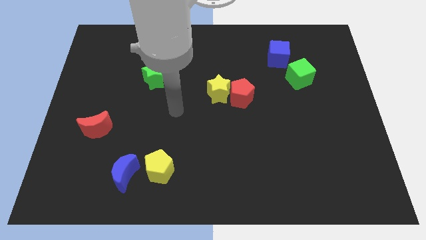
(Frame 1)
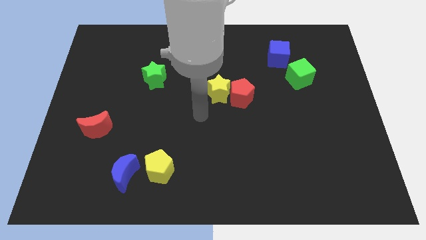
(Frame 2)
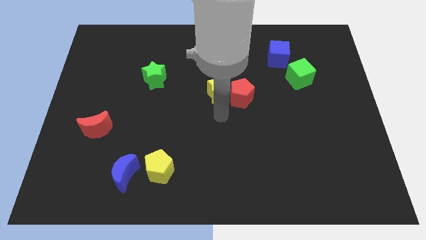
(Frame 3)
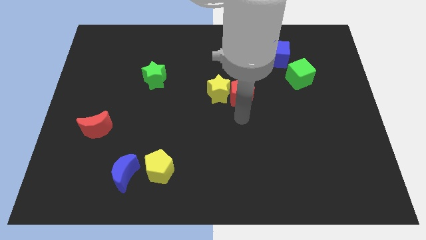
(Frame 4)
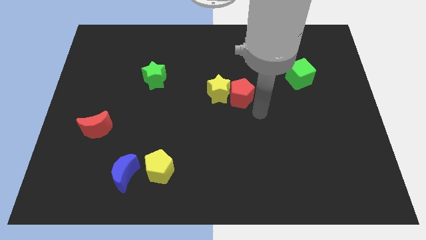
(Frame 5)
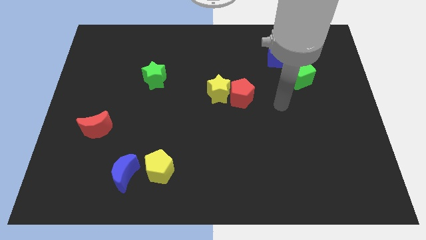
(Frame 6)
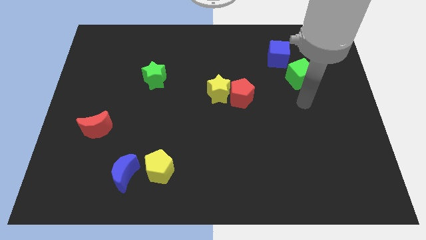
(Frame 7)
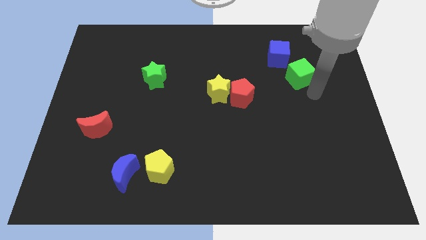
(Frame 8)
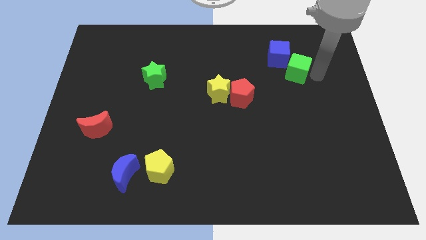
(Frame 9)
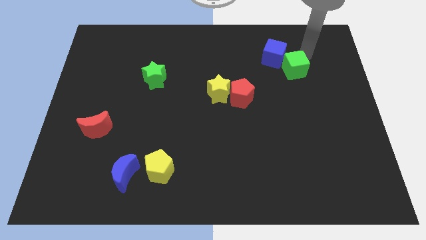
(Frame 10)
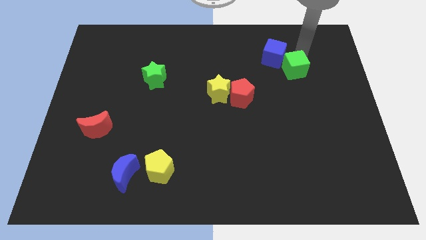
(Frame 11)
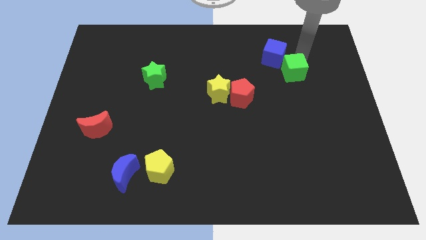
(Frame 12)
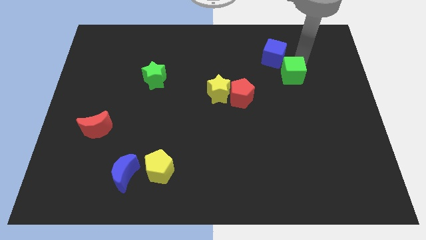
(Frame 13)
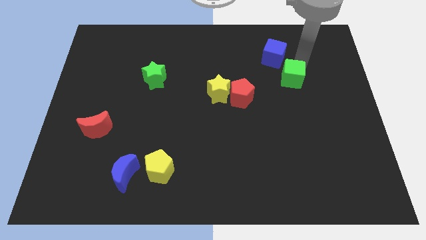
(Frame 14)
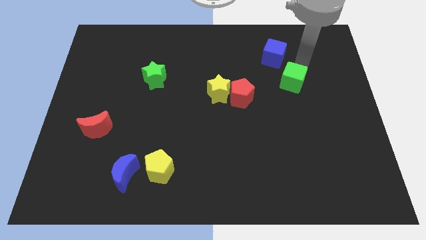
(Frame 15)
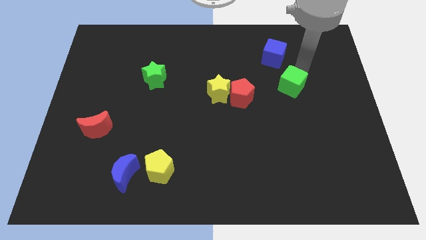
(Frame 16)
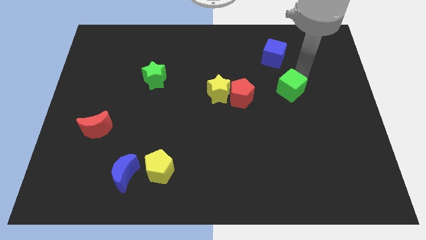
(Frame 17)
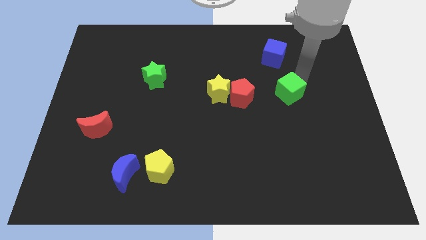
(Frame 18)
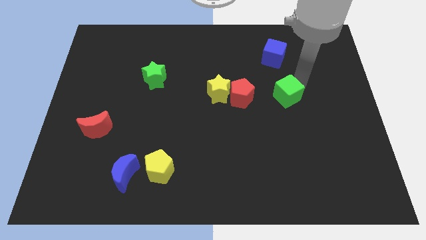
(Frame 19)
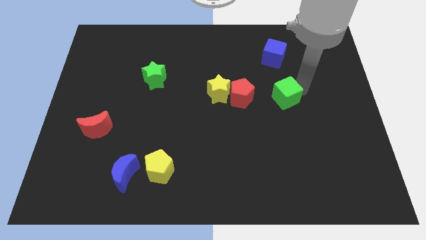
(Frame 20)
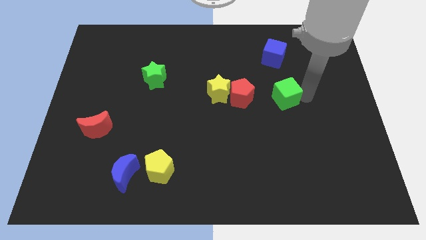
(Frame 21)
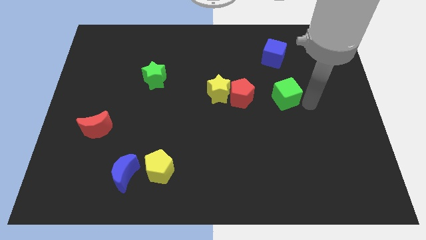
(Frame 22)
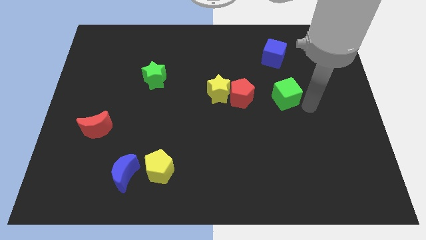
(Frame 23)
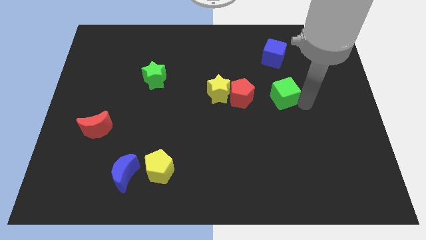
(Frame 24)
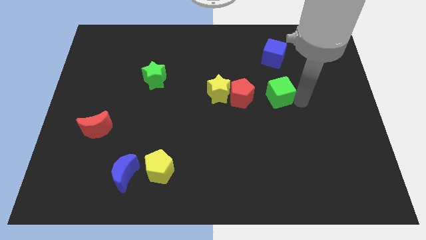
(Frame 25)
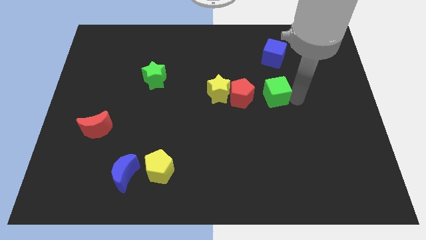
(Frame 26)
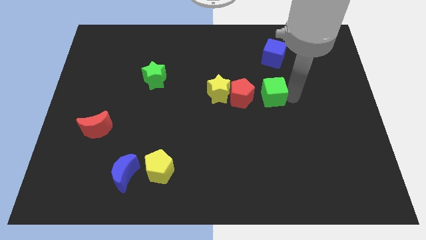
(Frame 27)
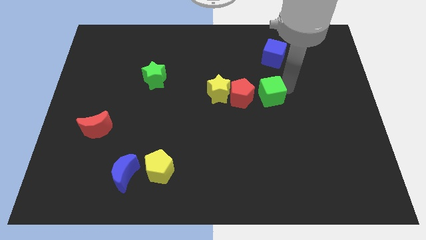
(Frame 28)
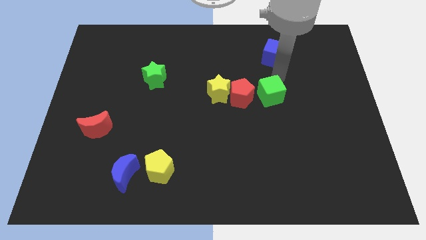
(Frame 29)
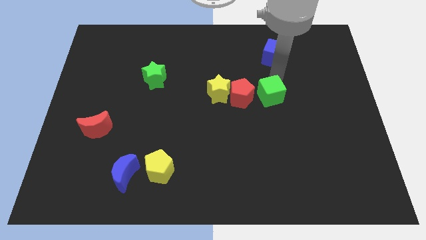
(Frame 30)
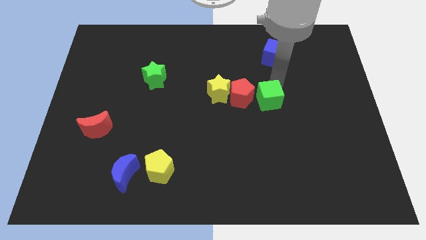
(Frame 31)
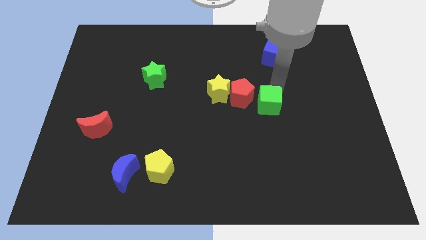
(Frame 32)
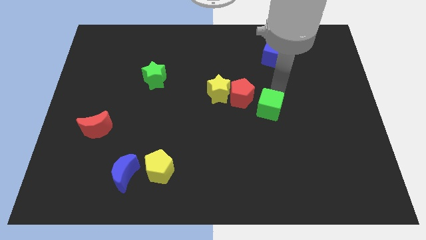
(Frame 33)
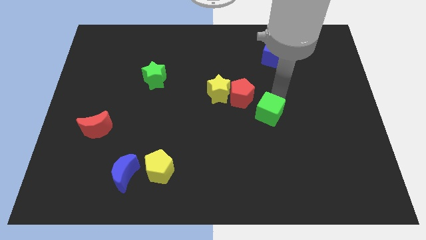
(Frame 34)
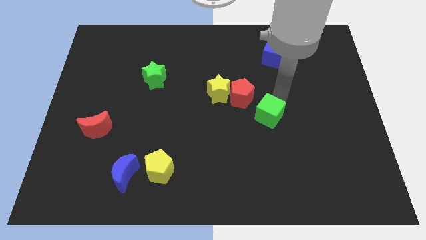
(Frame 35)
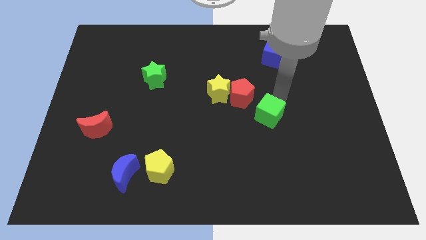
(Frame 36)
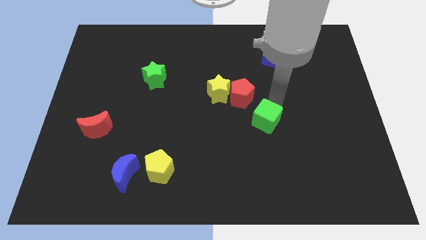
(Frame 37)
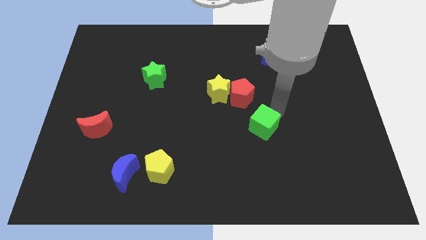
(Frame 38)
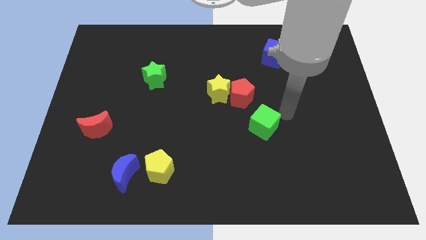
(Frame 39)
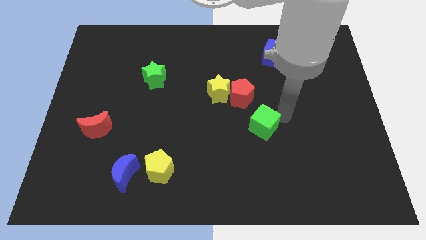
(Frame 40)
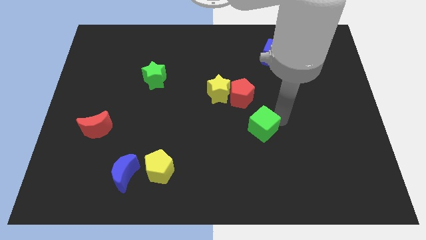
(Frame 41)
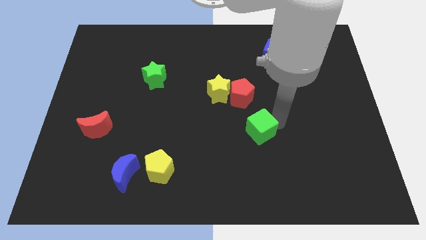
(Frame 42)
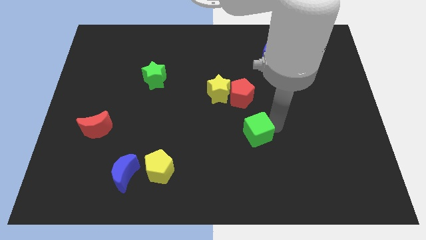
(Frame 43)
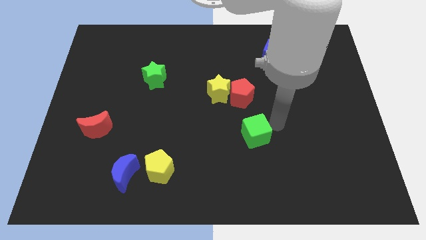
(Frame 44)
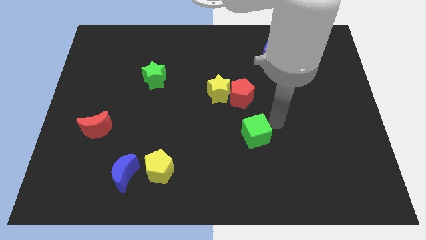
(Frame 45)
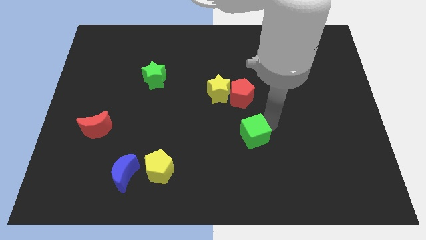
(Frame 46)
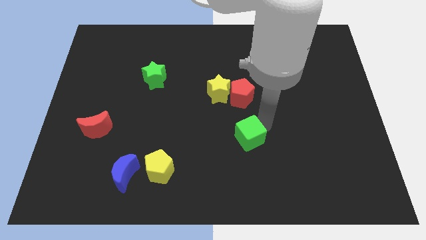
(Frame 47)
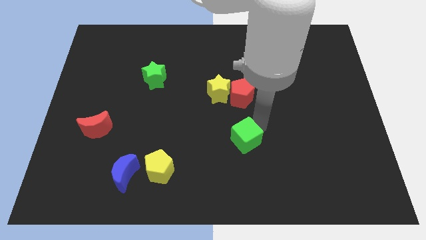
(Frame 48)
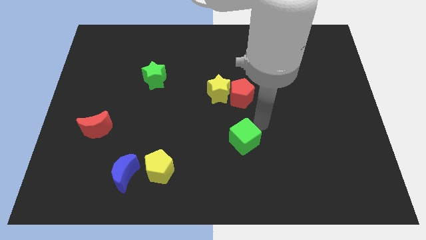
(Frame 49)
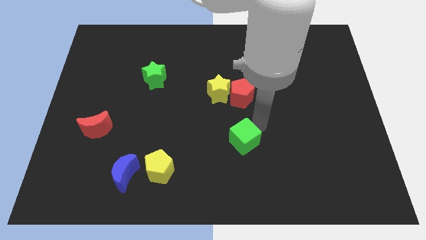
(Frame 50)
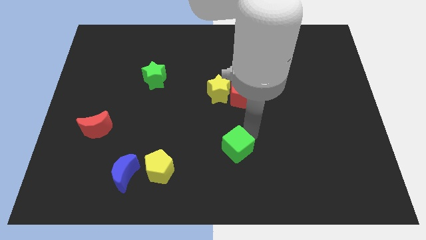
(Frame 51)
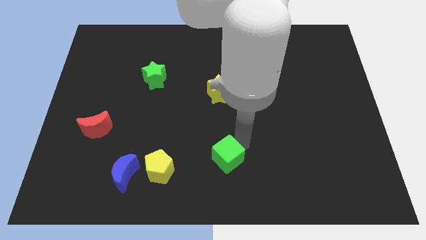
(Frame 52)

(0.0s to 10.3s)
push the green cube right of the yellow pentagon

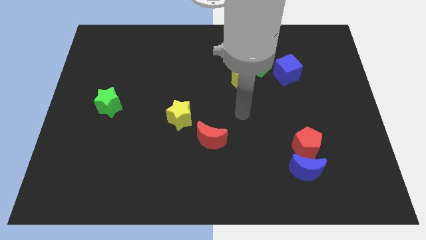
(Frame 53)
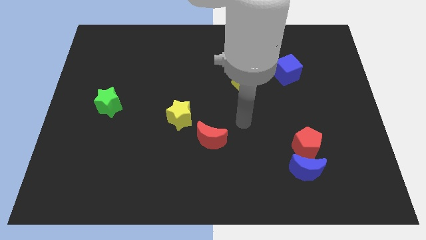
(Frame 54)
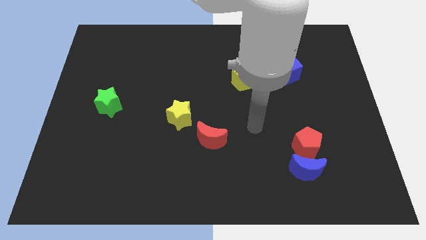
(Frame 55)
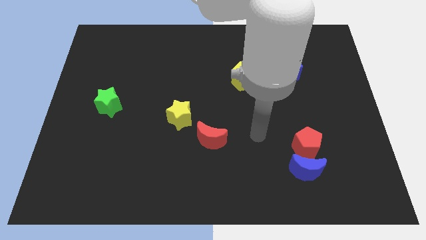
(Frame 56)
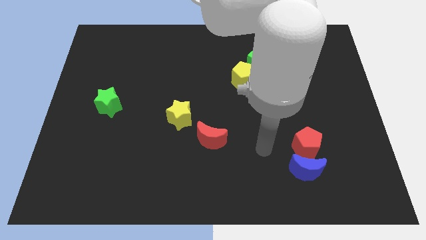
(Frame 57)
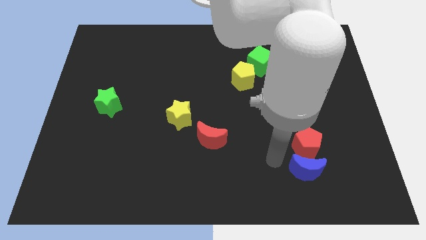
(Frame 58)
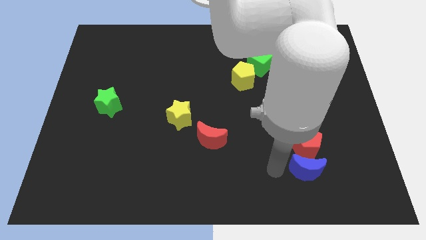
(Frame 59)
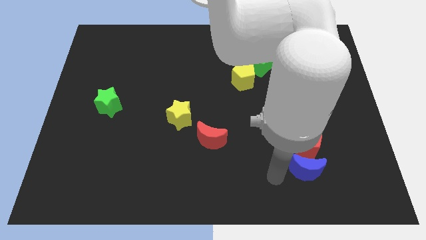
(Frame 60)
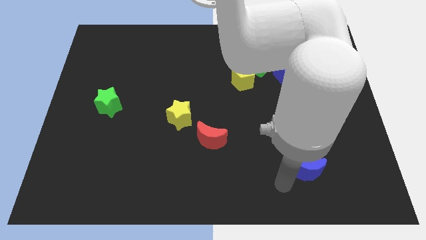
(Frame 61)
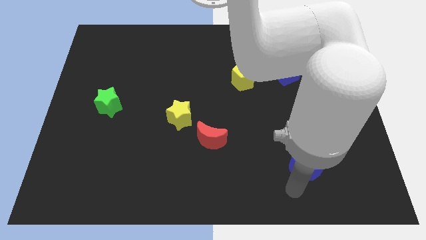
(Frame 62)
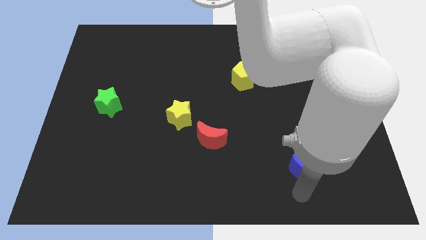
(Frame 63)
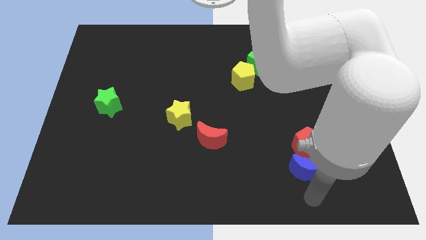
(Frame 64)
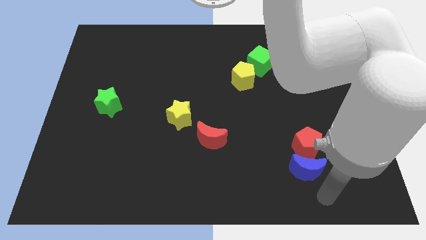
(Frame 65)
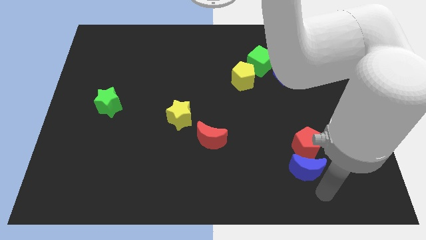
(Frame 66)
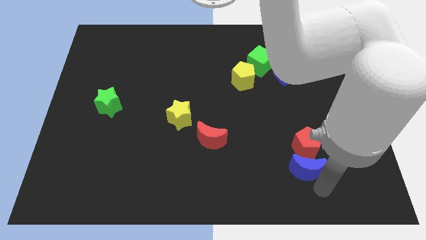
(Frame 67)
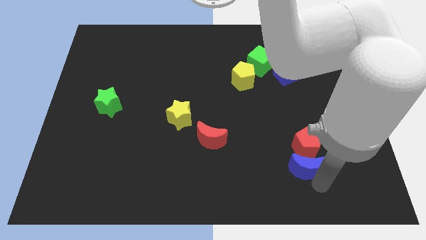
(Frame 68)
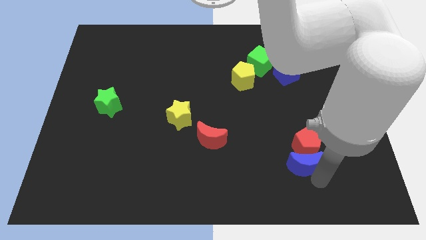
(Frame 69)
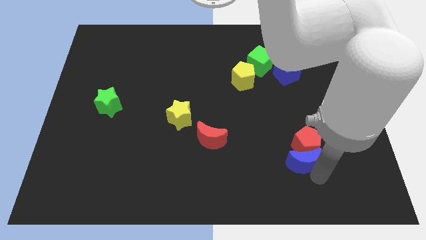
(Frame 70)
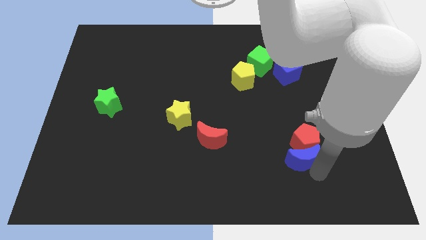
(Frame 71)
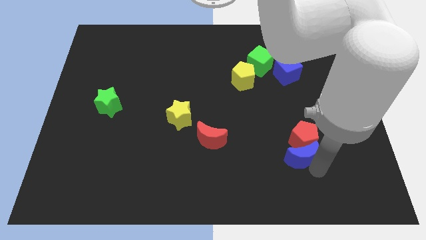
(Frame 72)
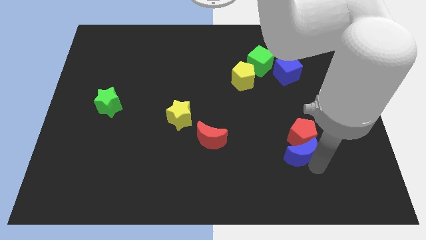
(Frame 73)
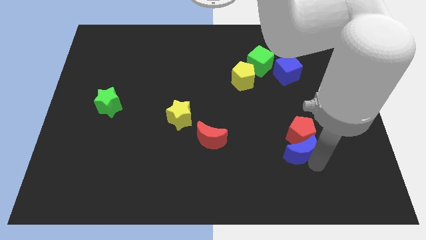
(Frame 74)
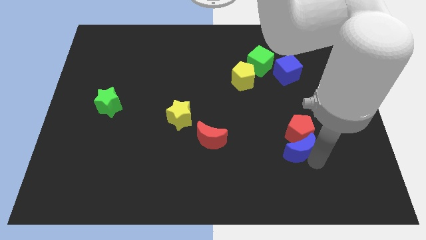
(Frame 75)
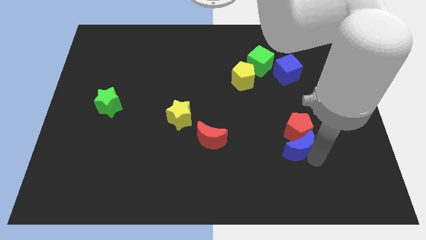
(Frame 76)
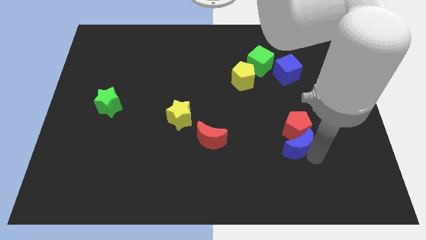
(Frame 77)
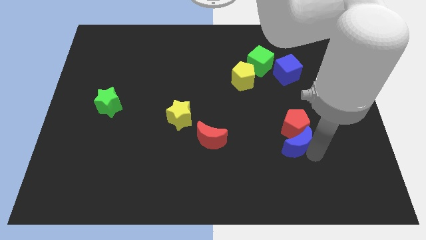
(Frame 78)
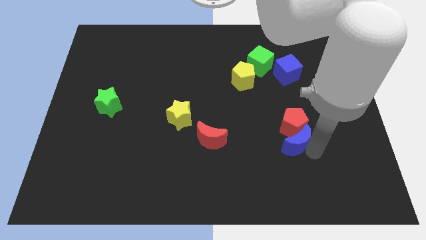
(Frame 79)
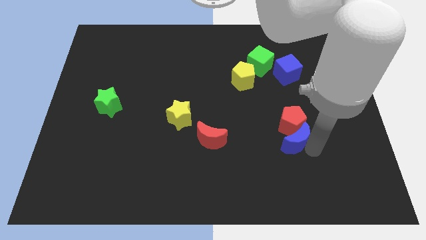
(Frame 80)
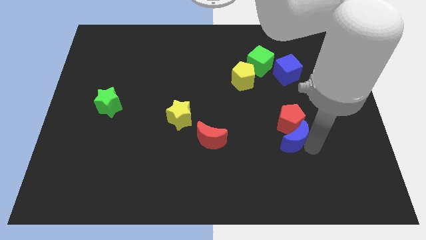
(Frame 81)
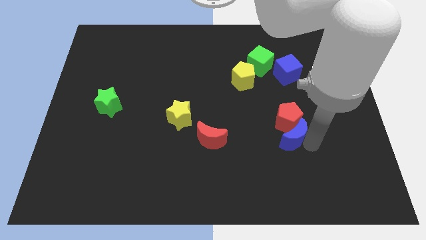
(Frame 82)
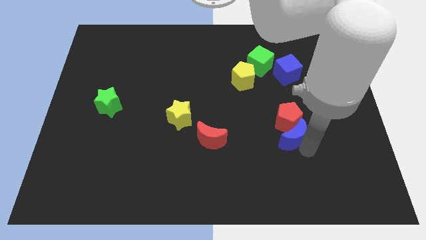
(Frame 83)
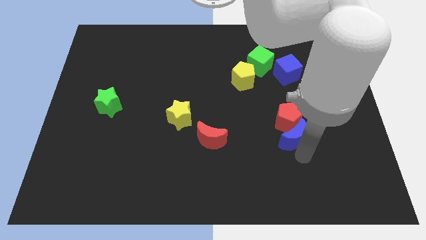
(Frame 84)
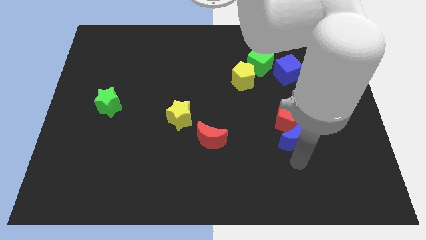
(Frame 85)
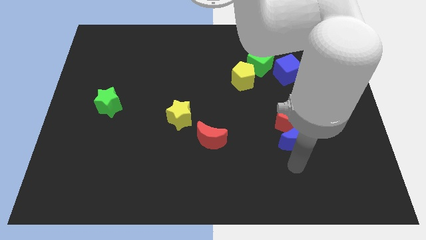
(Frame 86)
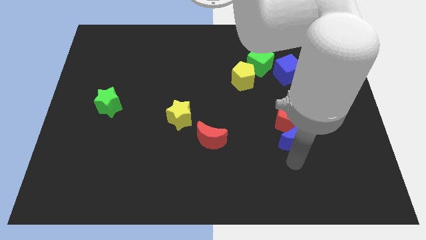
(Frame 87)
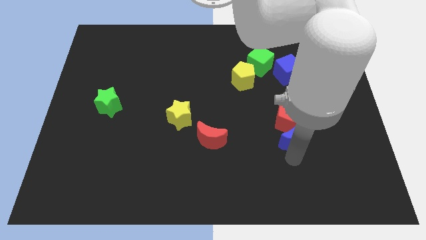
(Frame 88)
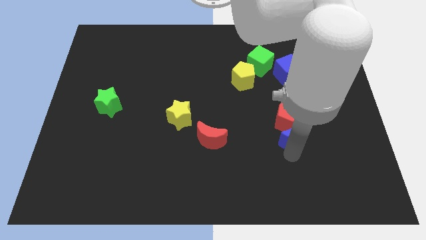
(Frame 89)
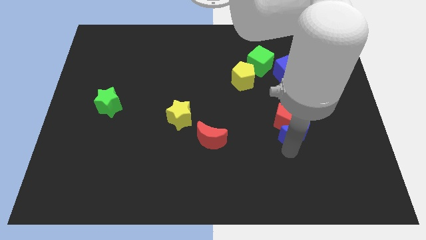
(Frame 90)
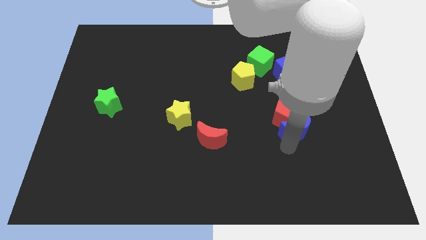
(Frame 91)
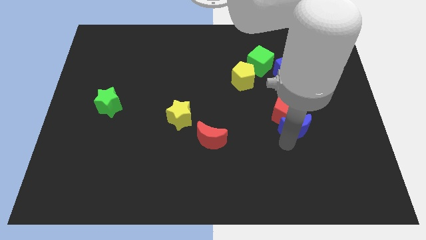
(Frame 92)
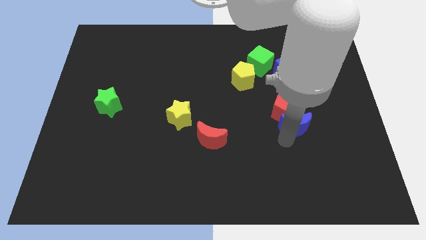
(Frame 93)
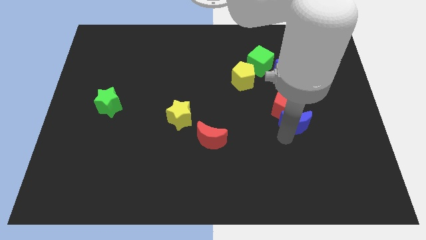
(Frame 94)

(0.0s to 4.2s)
push the blue moon to the bottom side of the blue cube
